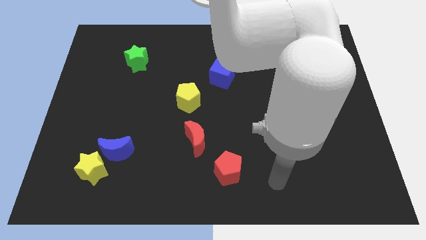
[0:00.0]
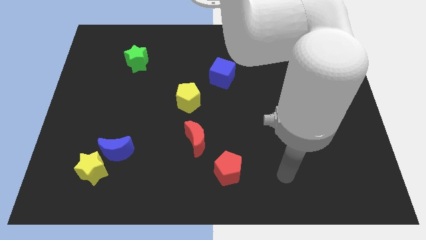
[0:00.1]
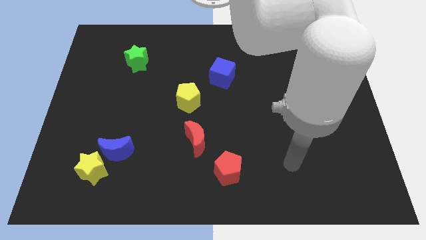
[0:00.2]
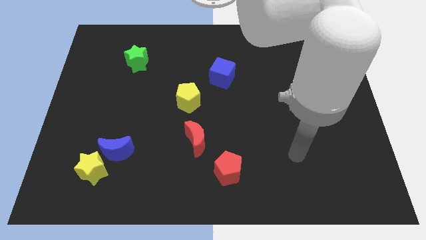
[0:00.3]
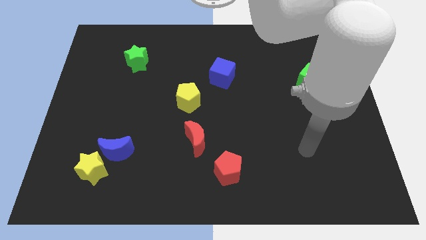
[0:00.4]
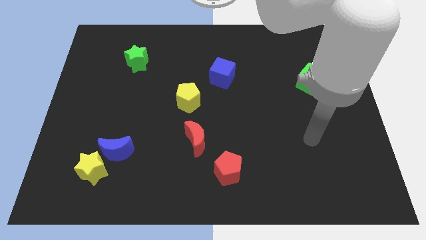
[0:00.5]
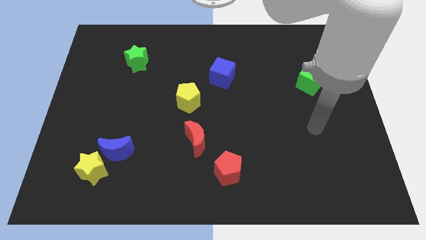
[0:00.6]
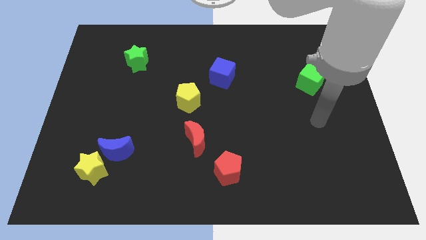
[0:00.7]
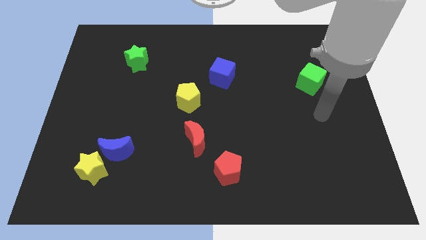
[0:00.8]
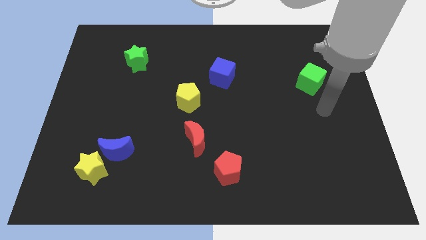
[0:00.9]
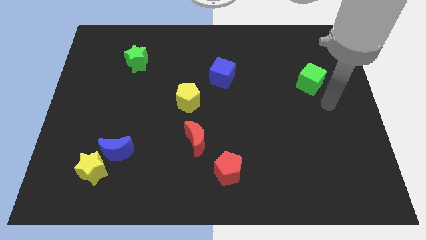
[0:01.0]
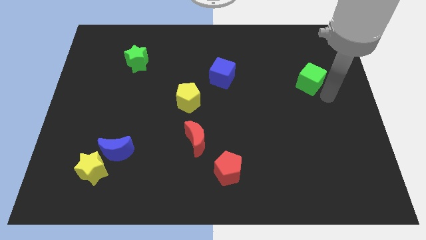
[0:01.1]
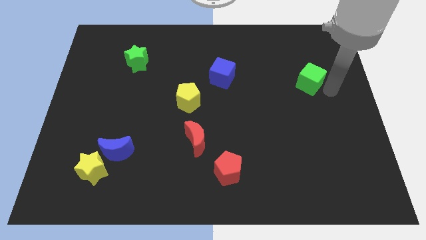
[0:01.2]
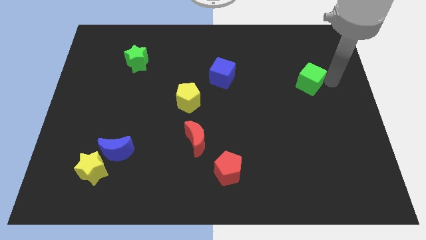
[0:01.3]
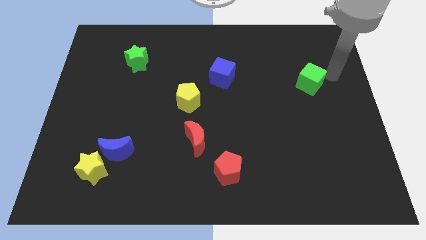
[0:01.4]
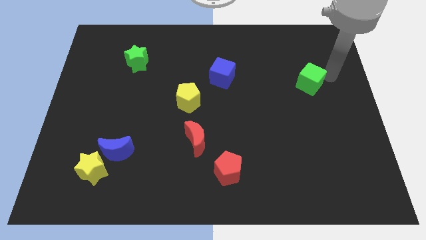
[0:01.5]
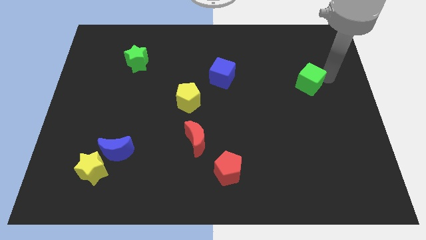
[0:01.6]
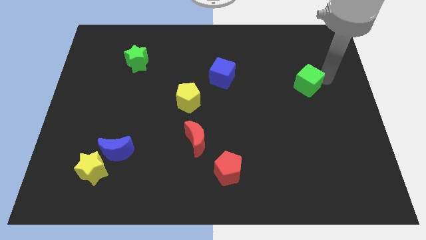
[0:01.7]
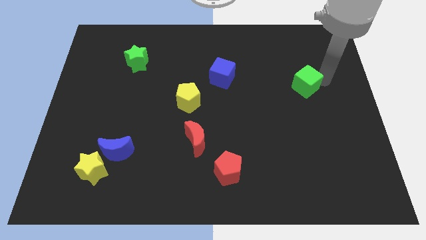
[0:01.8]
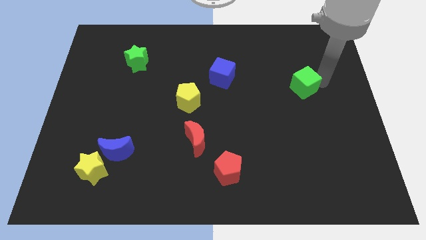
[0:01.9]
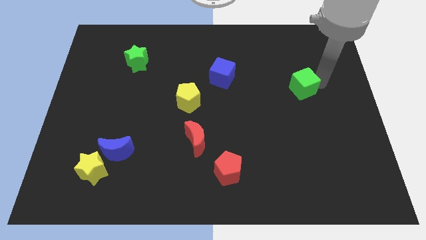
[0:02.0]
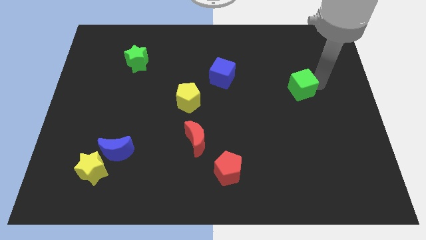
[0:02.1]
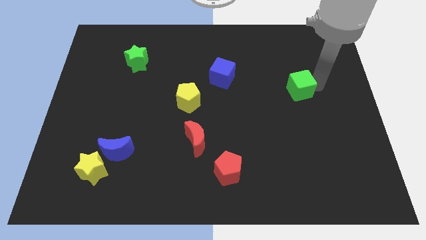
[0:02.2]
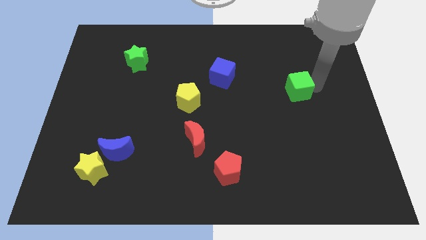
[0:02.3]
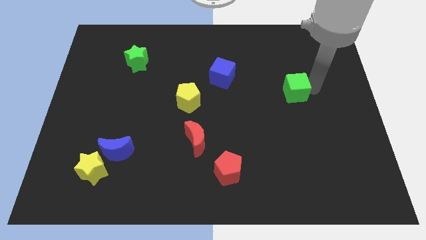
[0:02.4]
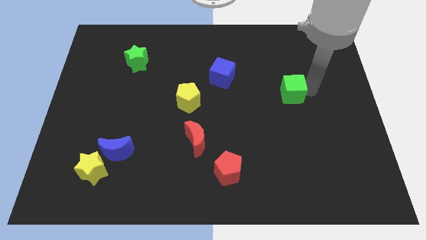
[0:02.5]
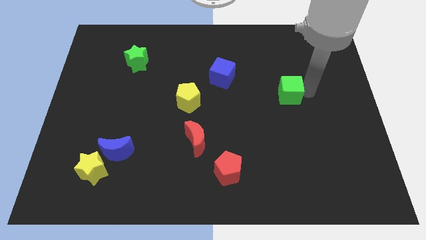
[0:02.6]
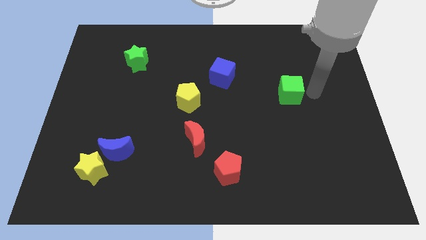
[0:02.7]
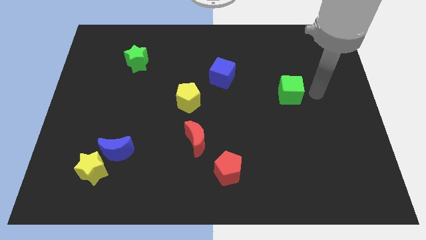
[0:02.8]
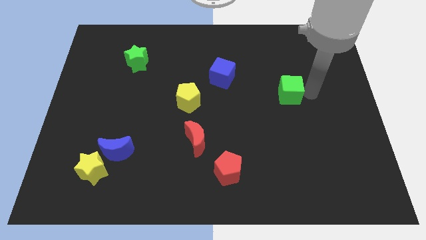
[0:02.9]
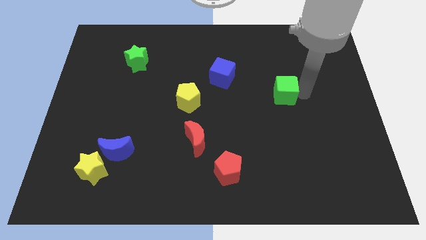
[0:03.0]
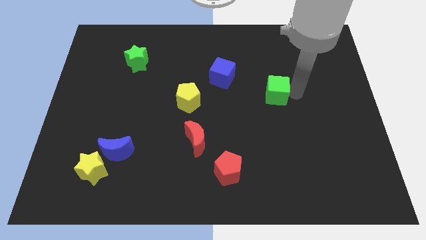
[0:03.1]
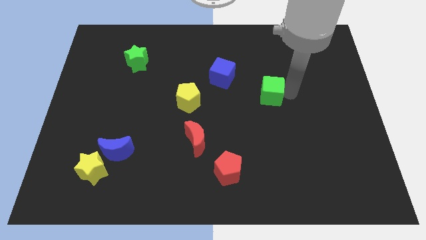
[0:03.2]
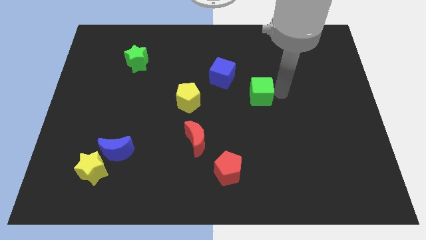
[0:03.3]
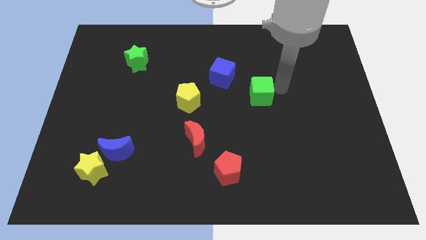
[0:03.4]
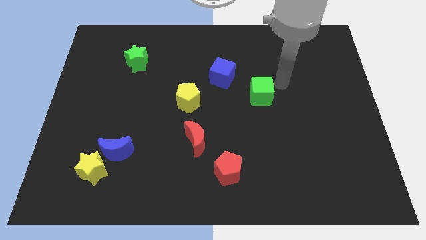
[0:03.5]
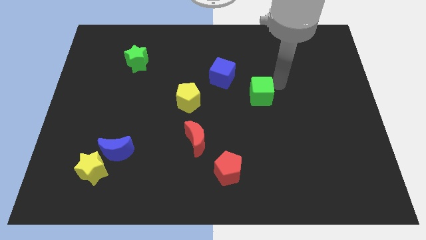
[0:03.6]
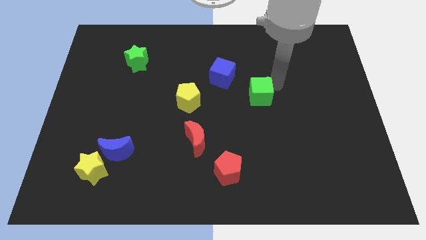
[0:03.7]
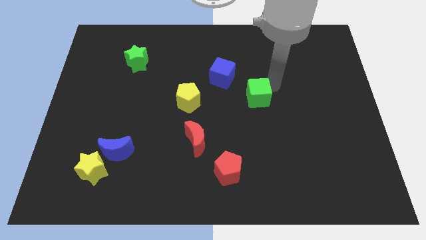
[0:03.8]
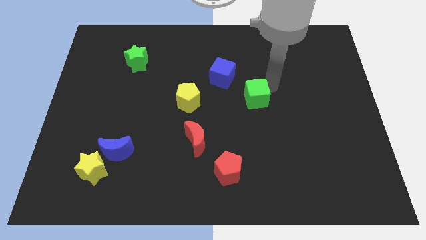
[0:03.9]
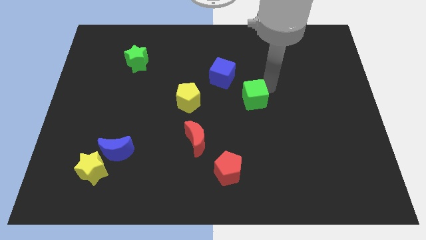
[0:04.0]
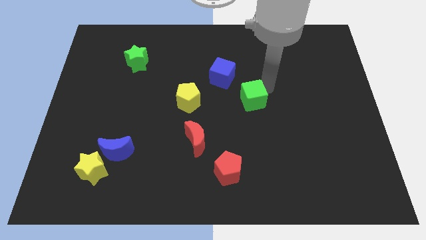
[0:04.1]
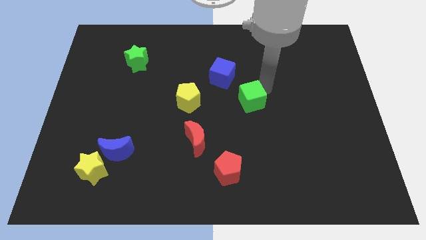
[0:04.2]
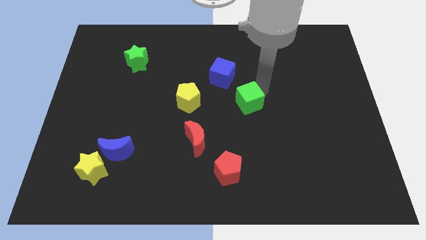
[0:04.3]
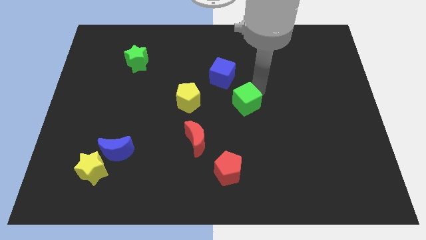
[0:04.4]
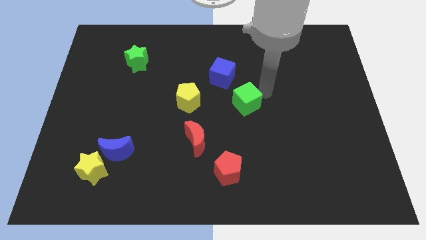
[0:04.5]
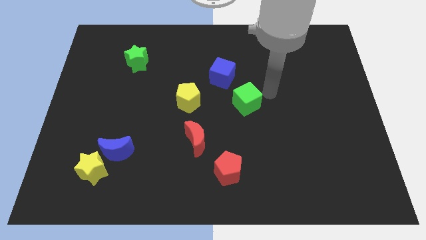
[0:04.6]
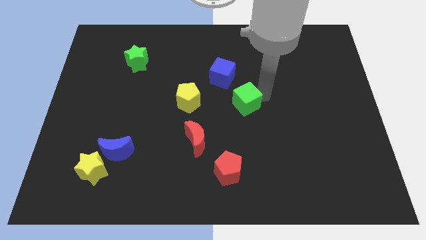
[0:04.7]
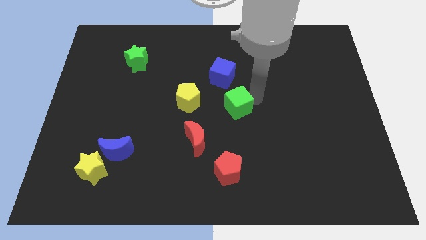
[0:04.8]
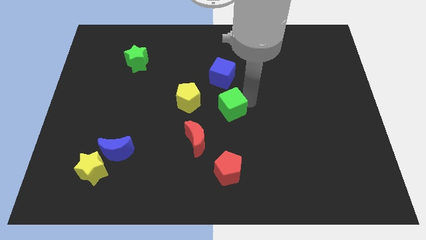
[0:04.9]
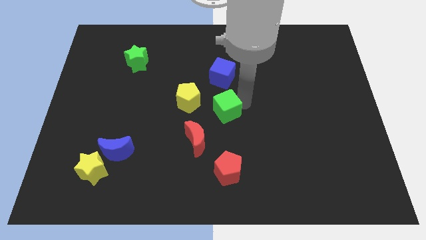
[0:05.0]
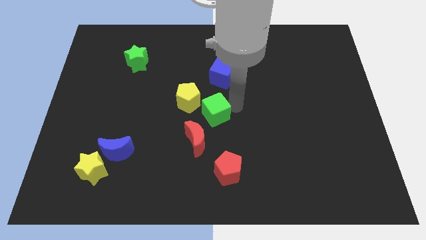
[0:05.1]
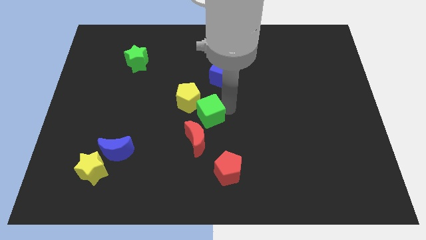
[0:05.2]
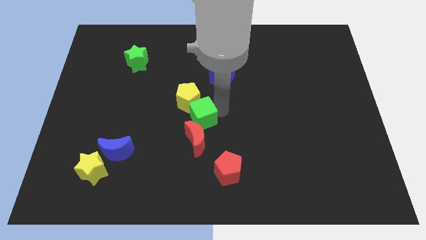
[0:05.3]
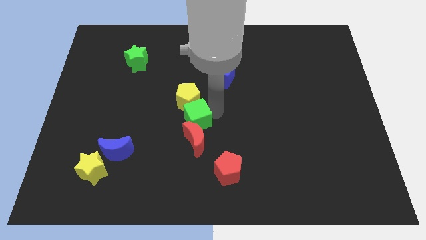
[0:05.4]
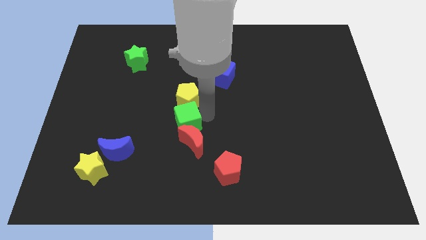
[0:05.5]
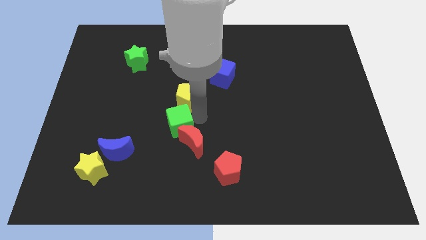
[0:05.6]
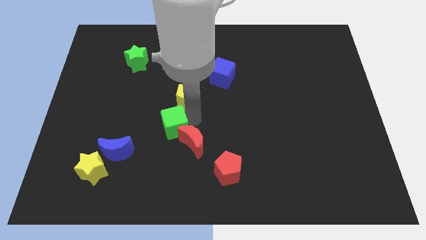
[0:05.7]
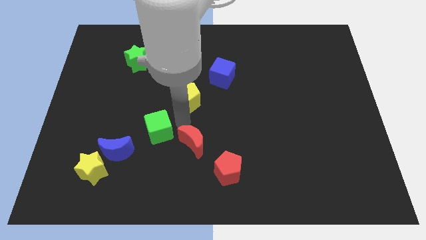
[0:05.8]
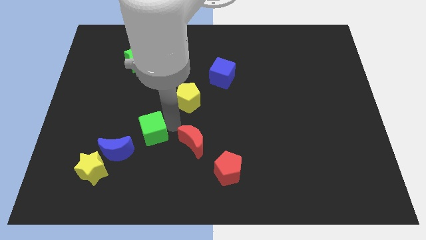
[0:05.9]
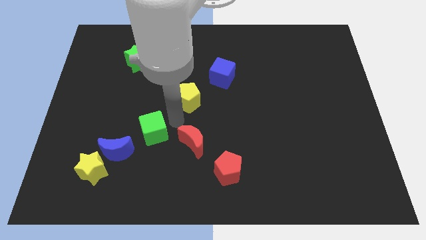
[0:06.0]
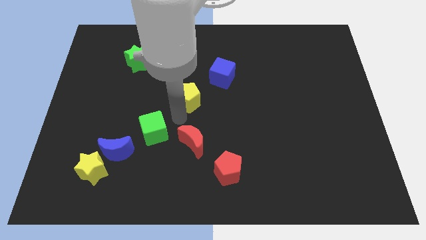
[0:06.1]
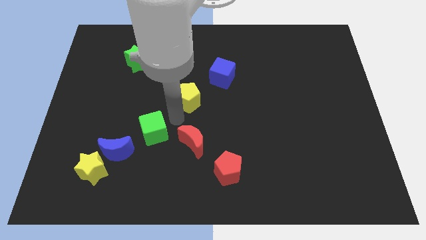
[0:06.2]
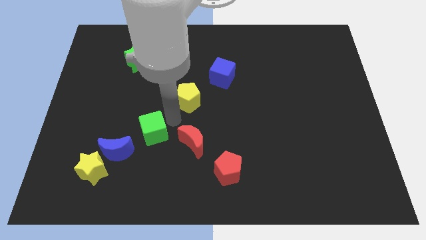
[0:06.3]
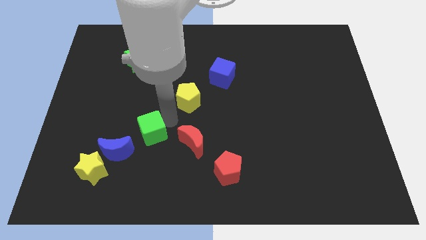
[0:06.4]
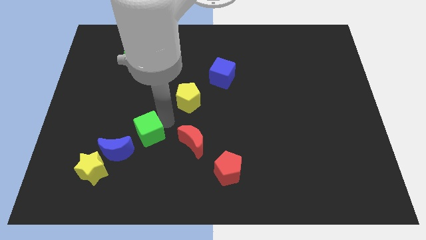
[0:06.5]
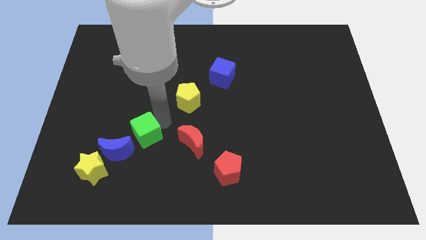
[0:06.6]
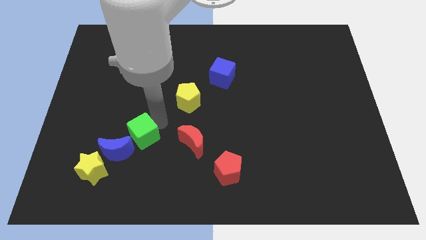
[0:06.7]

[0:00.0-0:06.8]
move the green cube to the top right side of the yellow star

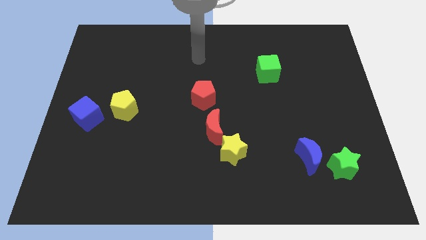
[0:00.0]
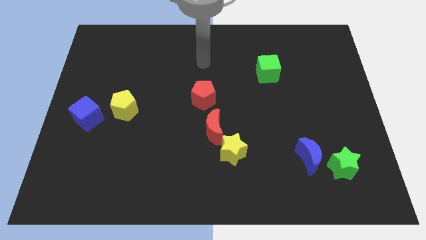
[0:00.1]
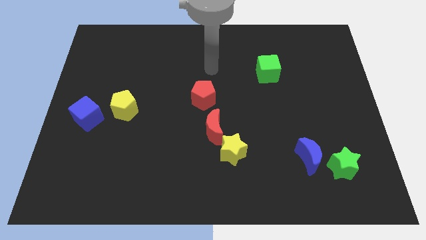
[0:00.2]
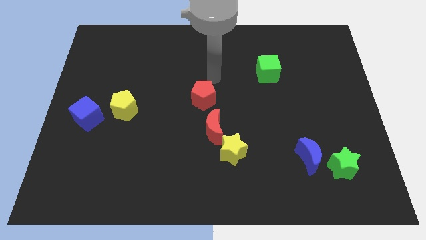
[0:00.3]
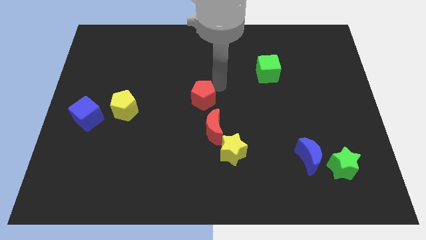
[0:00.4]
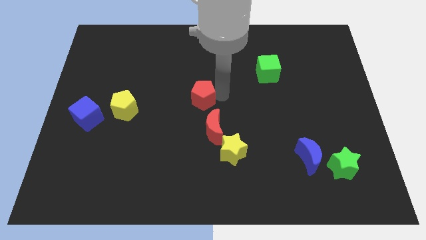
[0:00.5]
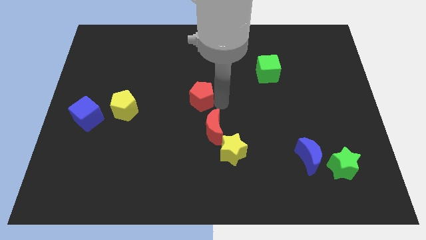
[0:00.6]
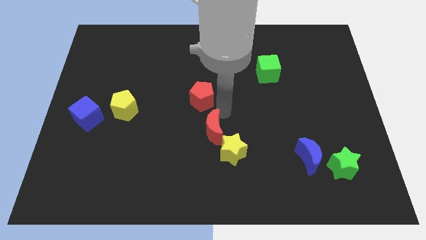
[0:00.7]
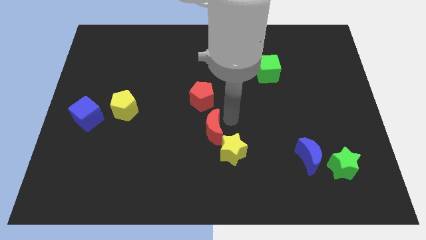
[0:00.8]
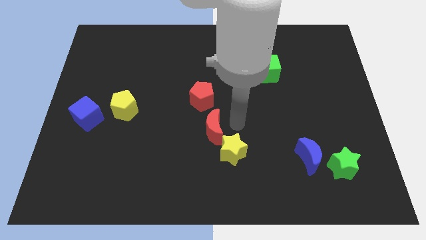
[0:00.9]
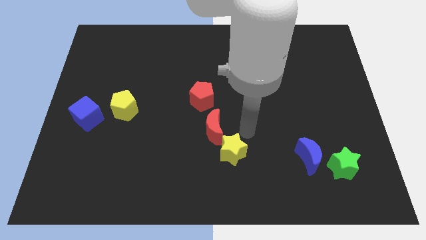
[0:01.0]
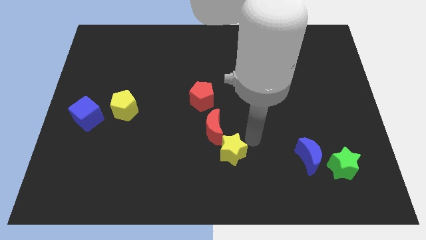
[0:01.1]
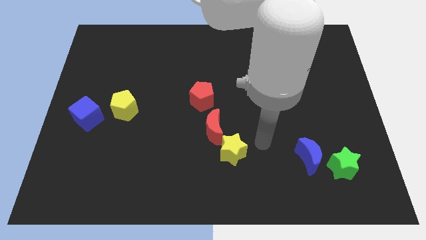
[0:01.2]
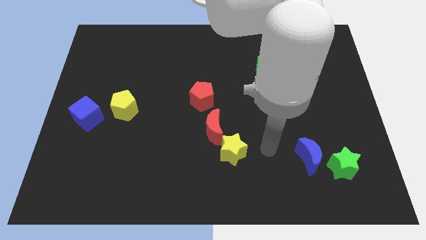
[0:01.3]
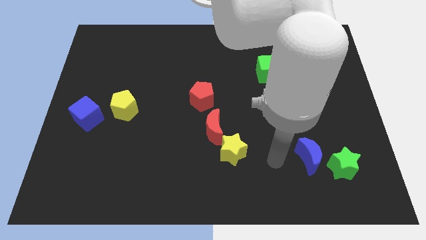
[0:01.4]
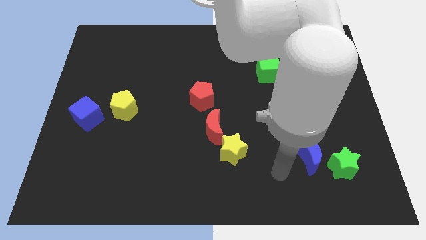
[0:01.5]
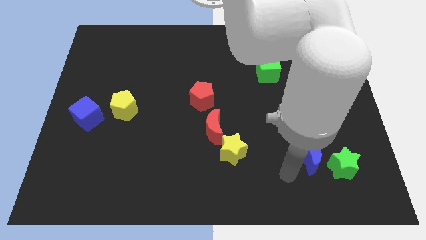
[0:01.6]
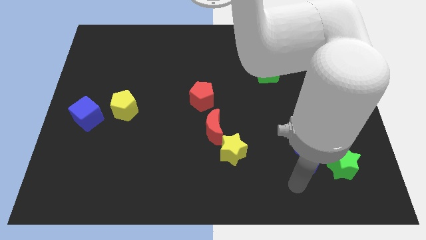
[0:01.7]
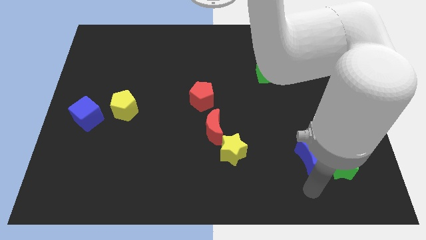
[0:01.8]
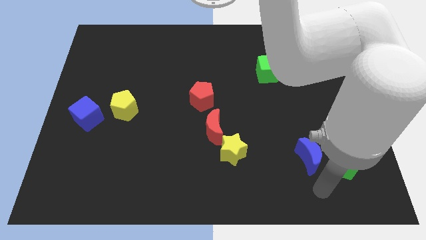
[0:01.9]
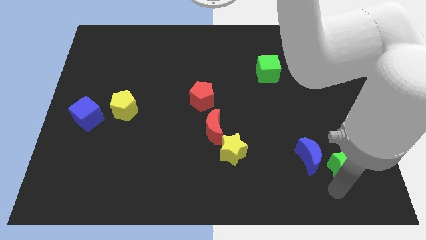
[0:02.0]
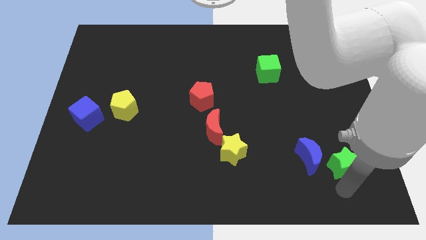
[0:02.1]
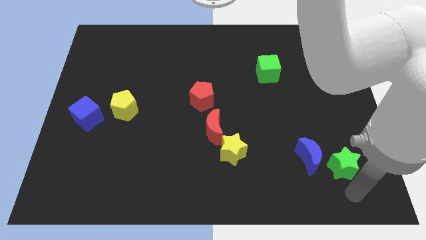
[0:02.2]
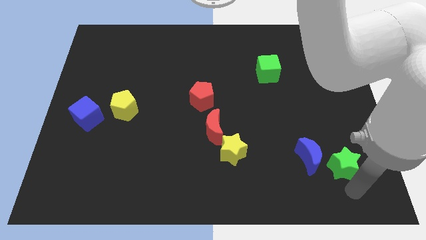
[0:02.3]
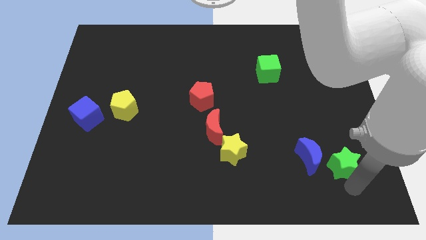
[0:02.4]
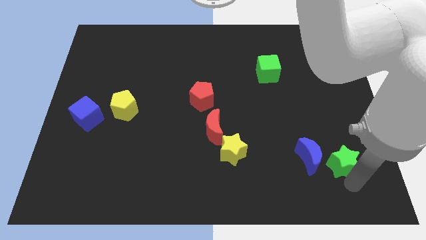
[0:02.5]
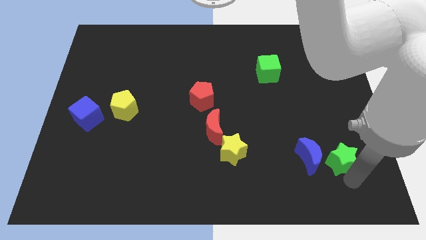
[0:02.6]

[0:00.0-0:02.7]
move the green star diagonally up and to the right of the blue moon
